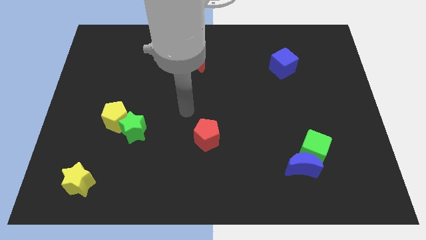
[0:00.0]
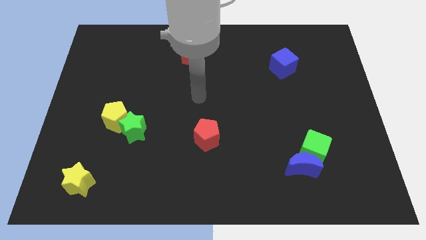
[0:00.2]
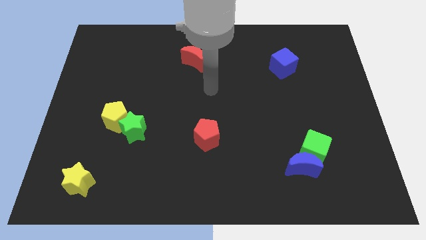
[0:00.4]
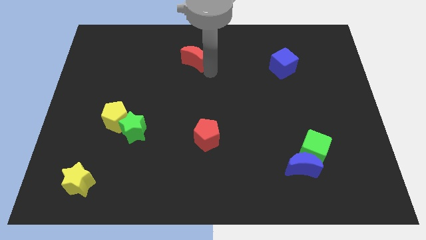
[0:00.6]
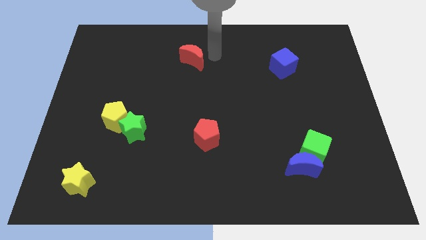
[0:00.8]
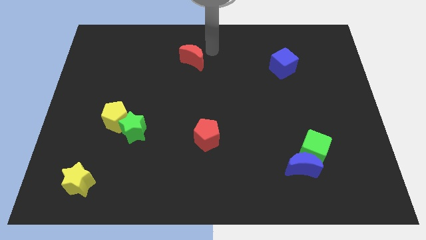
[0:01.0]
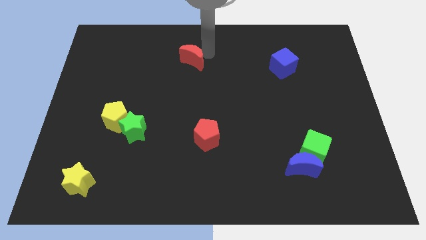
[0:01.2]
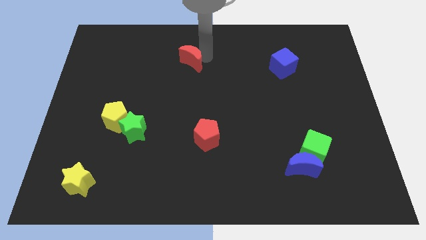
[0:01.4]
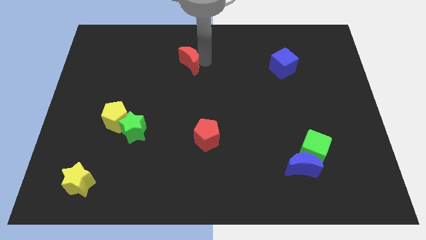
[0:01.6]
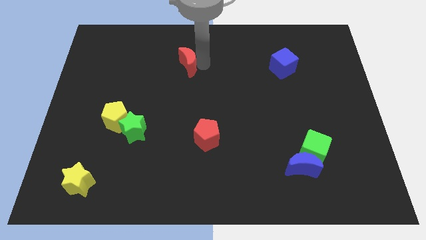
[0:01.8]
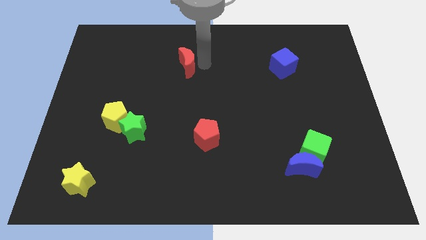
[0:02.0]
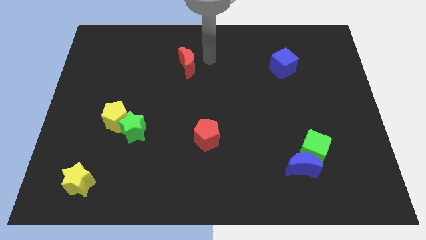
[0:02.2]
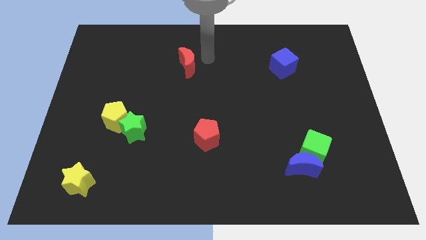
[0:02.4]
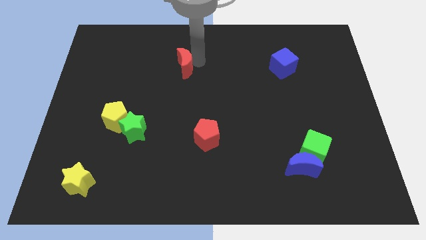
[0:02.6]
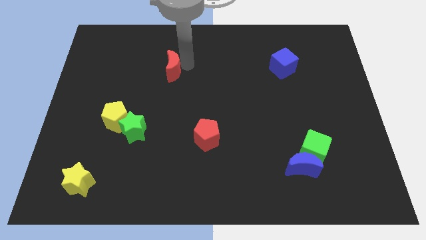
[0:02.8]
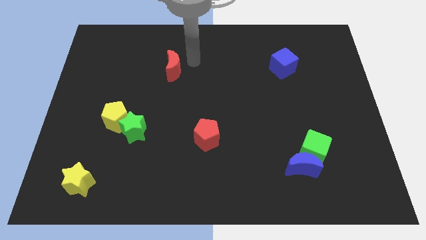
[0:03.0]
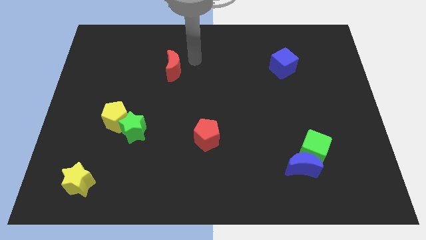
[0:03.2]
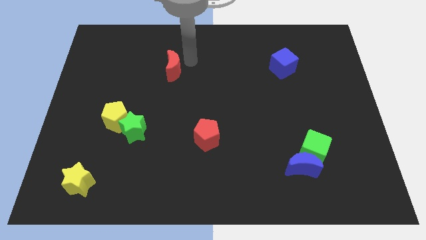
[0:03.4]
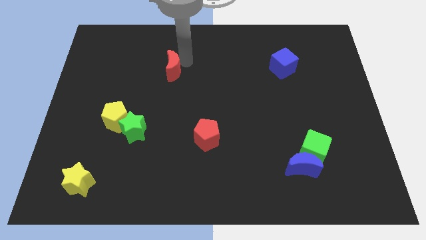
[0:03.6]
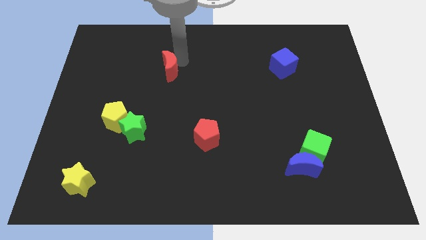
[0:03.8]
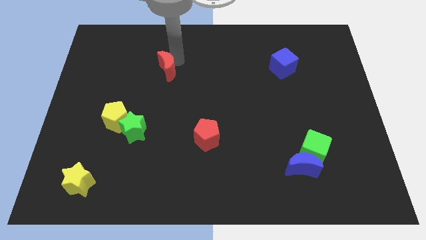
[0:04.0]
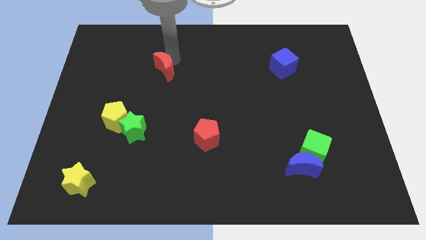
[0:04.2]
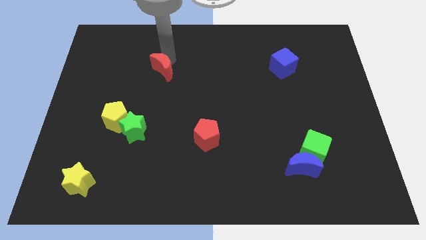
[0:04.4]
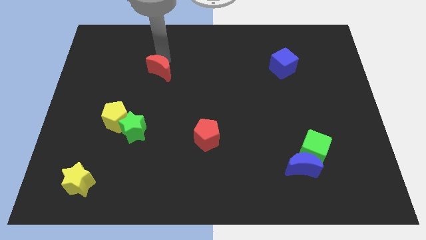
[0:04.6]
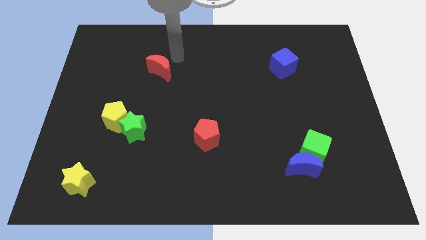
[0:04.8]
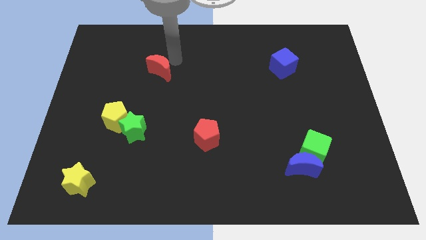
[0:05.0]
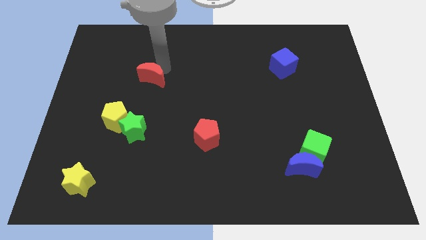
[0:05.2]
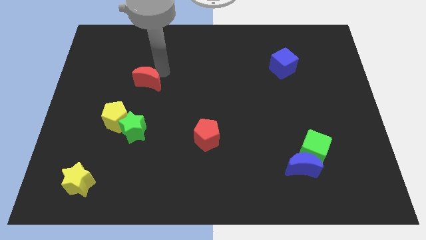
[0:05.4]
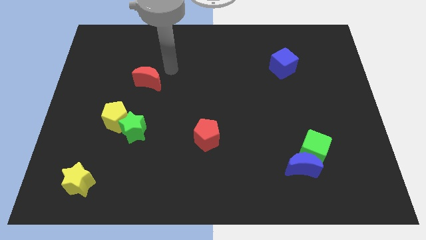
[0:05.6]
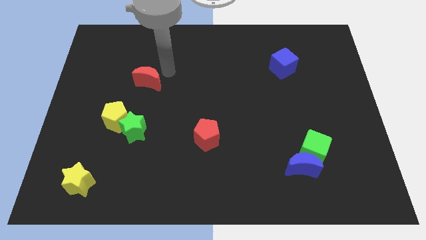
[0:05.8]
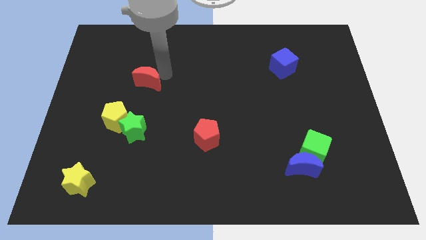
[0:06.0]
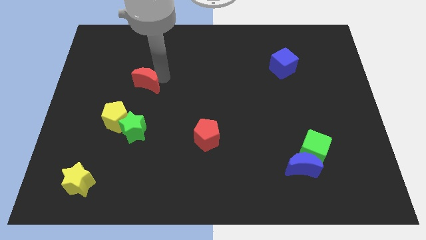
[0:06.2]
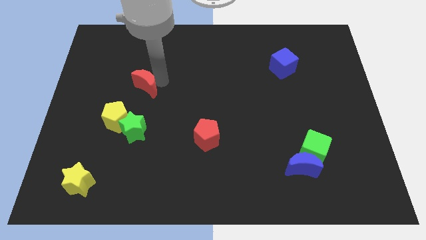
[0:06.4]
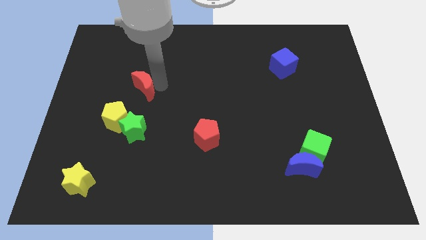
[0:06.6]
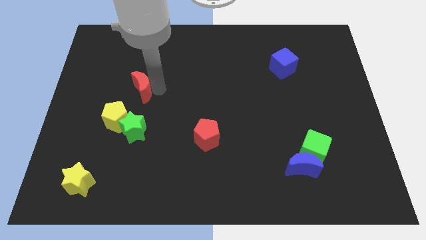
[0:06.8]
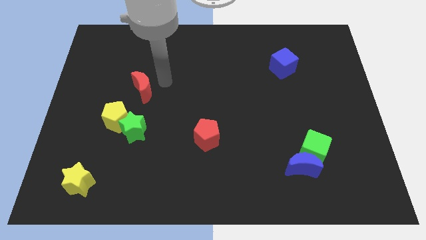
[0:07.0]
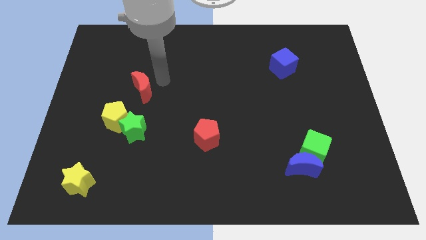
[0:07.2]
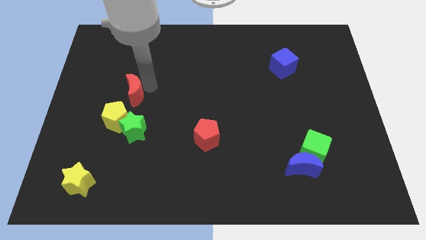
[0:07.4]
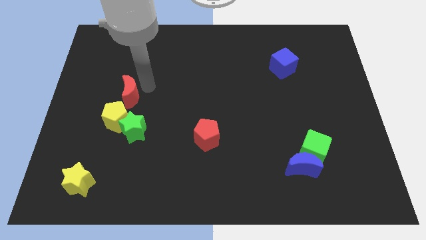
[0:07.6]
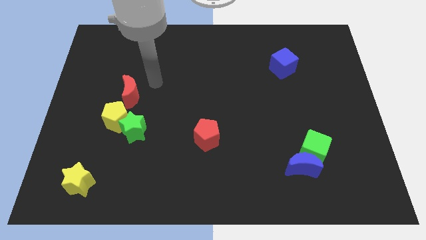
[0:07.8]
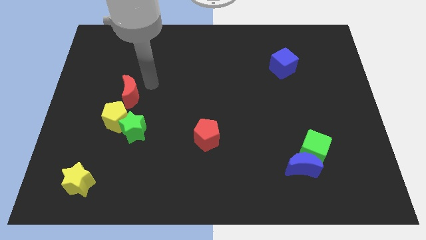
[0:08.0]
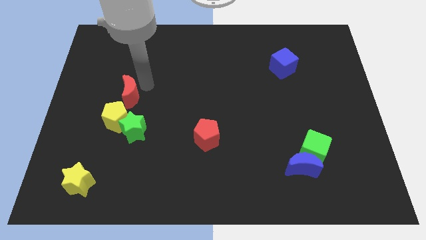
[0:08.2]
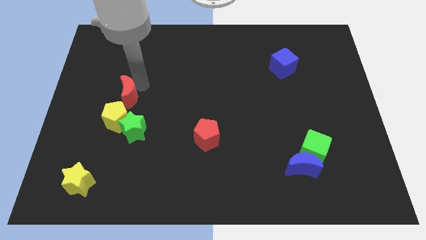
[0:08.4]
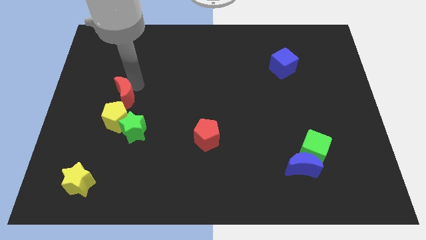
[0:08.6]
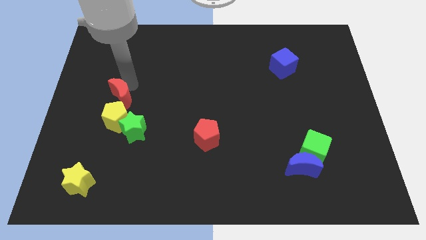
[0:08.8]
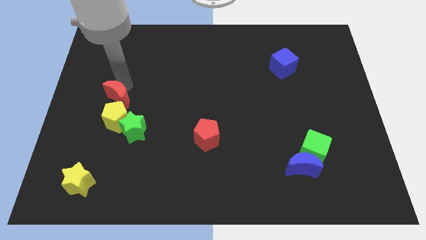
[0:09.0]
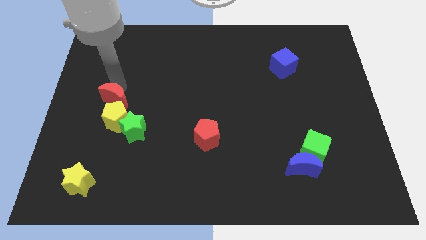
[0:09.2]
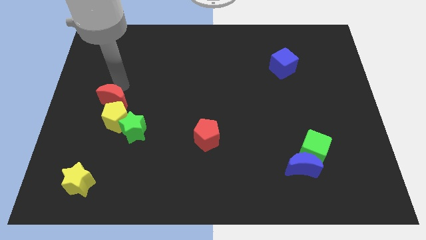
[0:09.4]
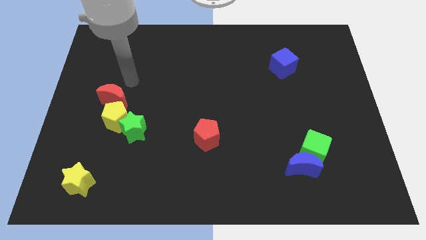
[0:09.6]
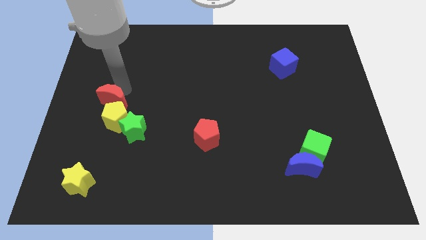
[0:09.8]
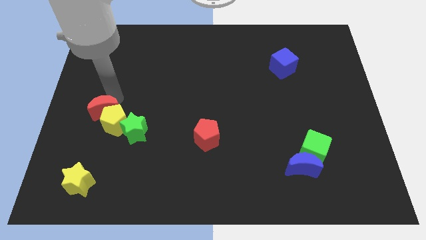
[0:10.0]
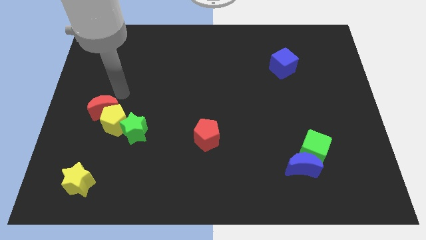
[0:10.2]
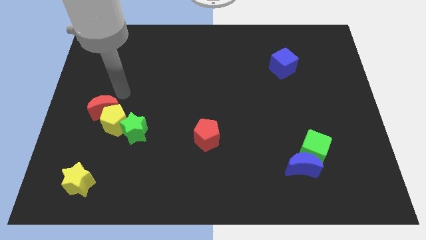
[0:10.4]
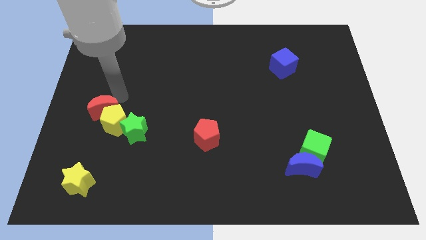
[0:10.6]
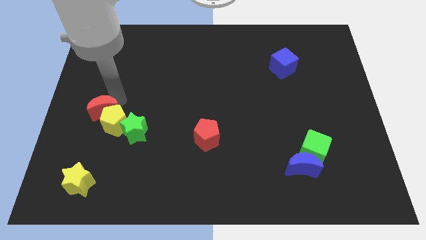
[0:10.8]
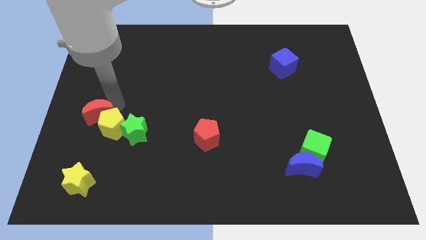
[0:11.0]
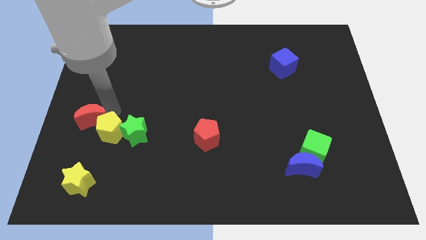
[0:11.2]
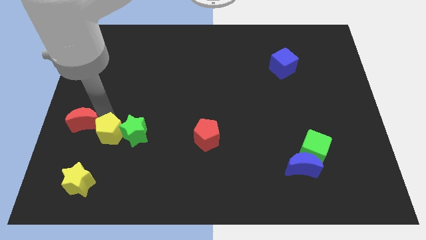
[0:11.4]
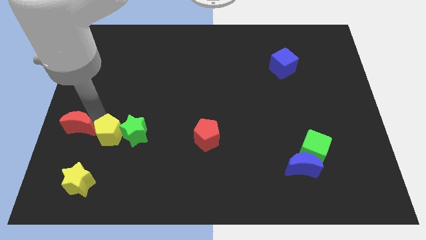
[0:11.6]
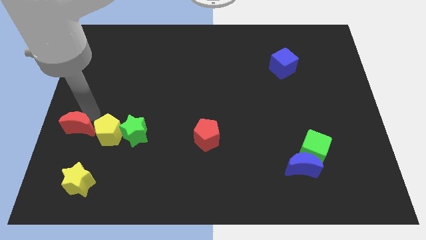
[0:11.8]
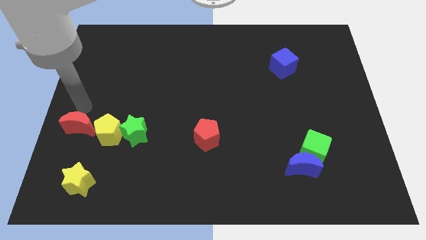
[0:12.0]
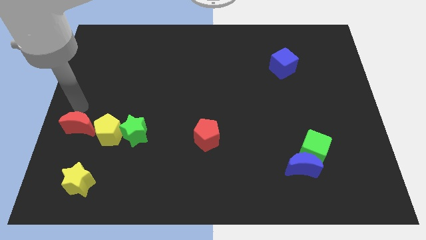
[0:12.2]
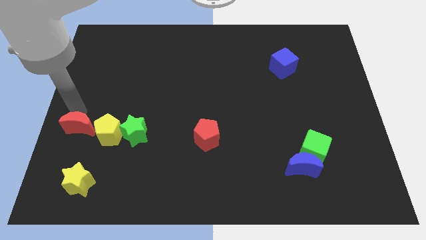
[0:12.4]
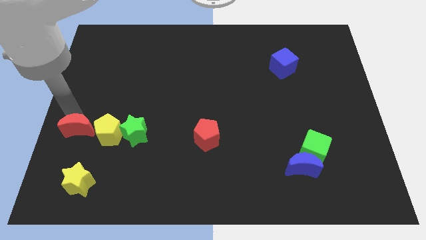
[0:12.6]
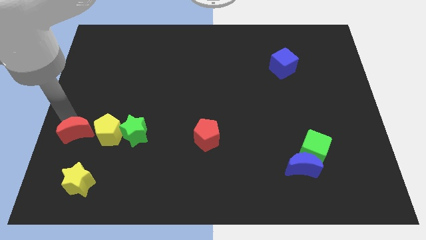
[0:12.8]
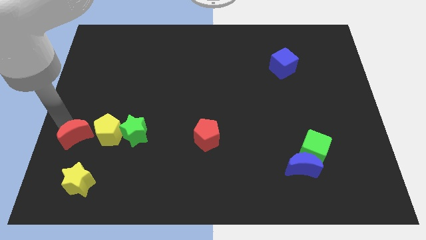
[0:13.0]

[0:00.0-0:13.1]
move the red moon diagonally down and to the left of the yellow pentagon

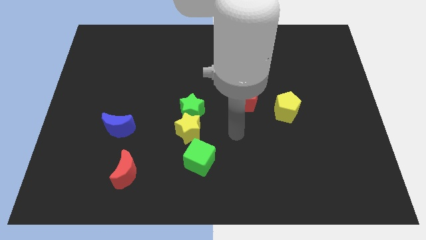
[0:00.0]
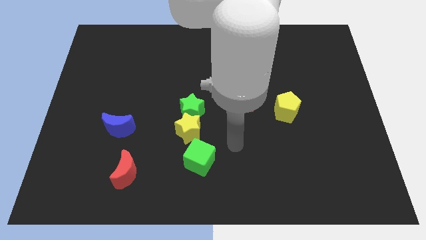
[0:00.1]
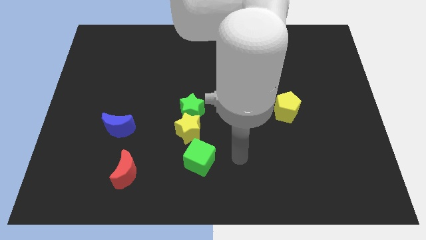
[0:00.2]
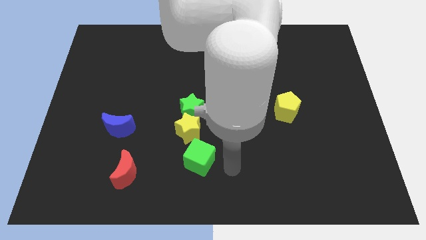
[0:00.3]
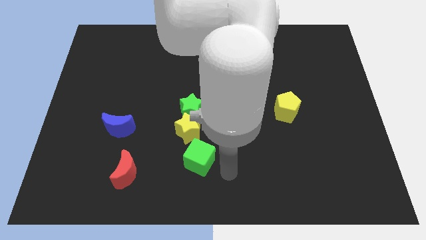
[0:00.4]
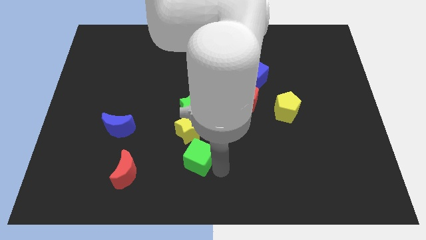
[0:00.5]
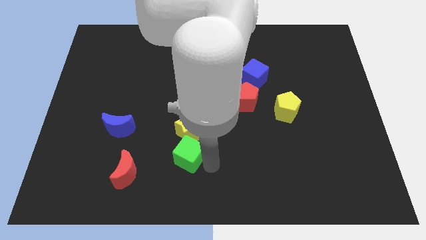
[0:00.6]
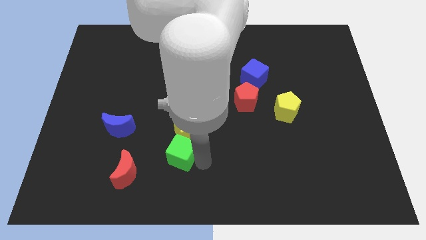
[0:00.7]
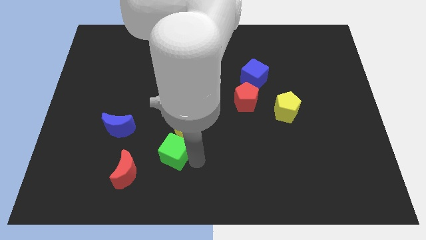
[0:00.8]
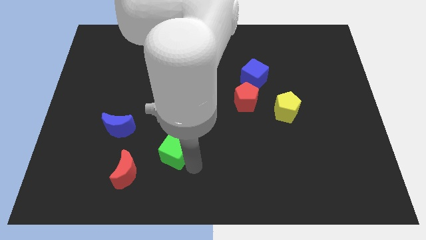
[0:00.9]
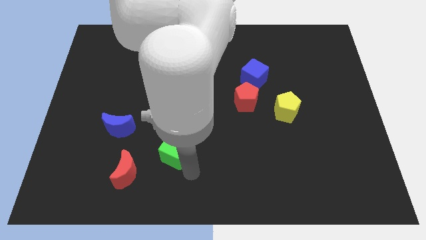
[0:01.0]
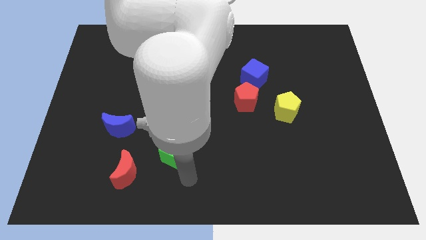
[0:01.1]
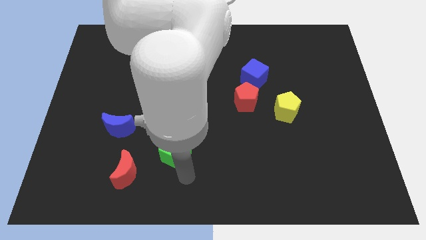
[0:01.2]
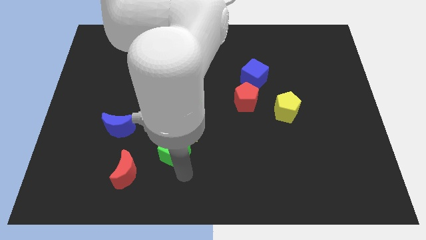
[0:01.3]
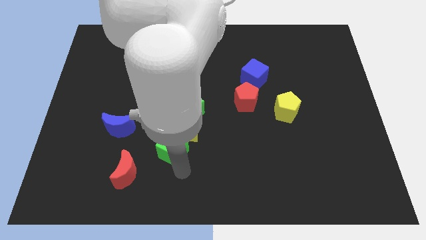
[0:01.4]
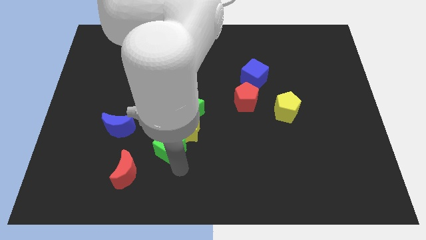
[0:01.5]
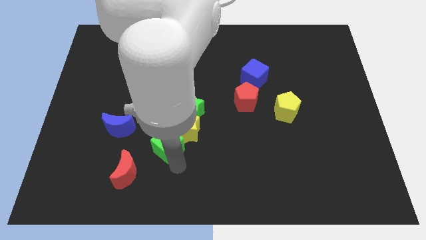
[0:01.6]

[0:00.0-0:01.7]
move the green cube to the right of the blue moon
